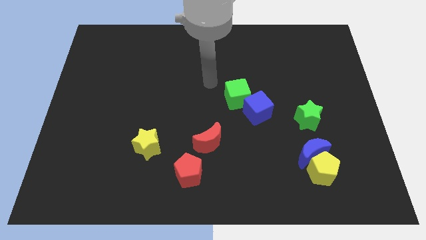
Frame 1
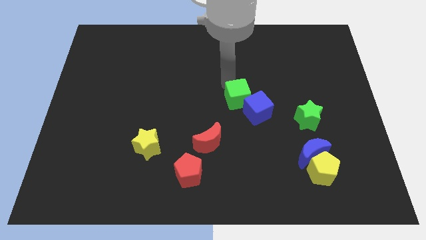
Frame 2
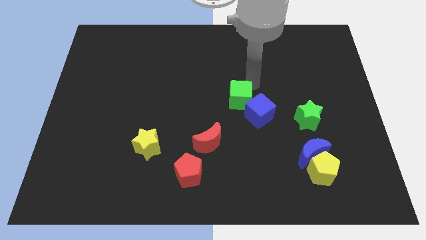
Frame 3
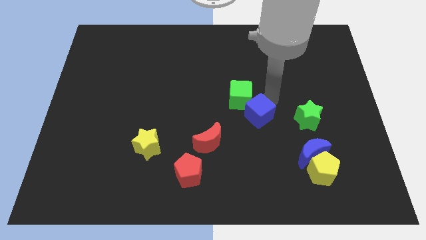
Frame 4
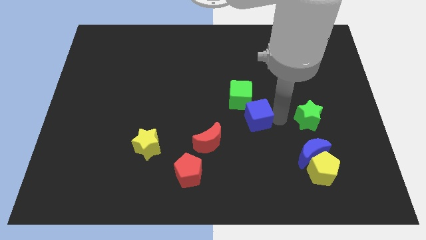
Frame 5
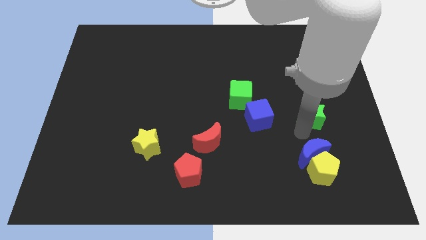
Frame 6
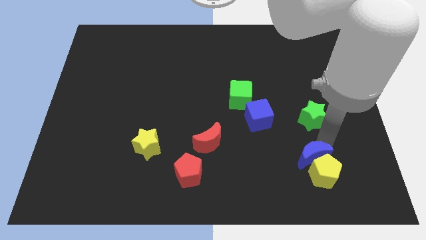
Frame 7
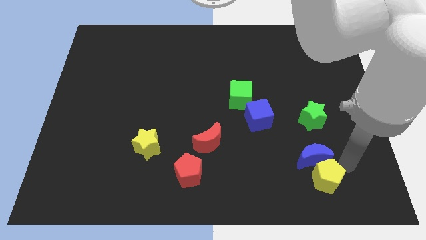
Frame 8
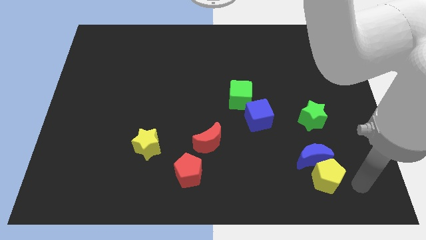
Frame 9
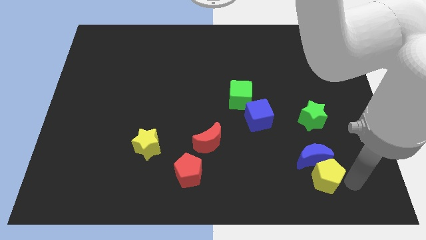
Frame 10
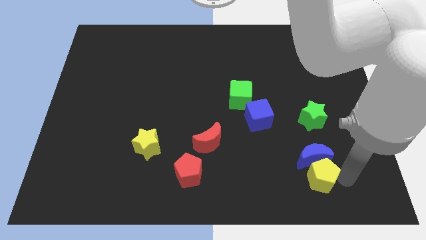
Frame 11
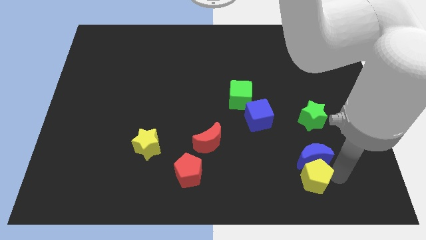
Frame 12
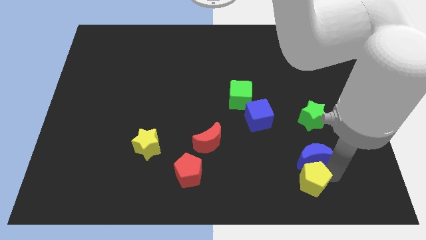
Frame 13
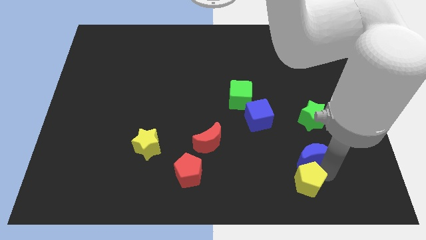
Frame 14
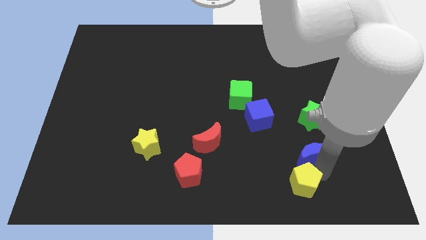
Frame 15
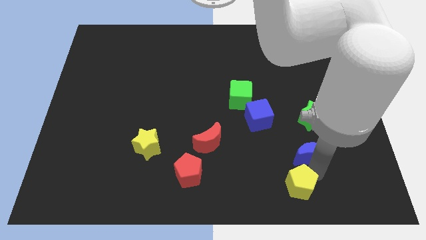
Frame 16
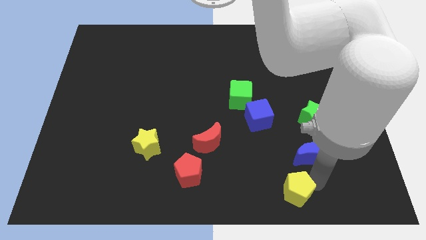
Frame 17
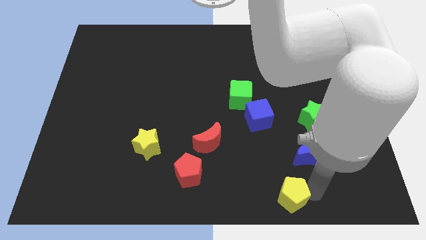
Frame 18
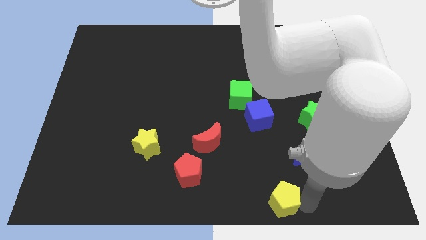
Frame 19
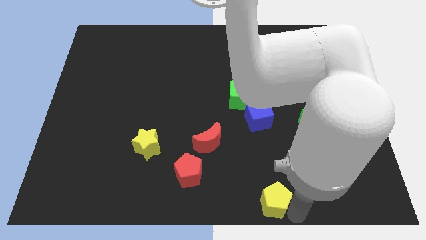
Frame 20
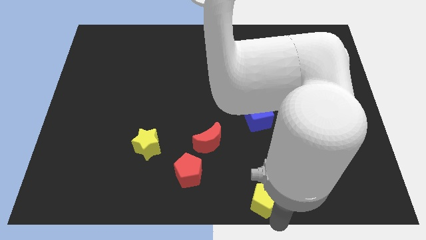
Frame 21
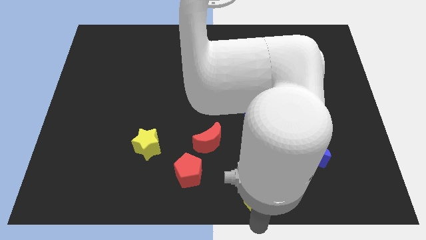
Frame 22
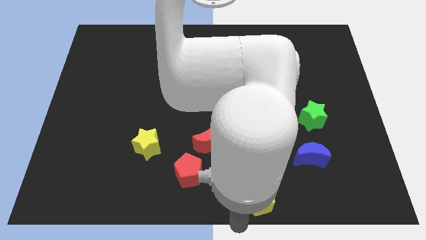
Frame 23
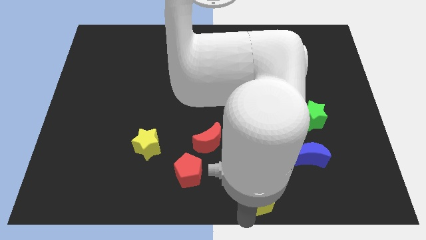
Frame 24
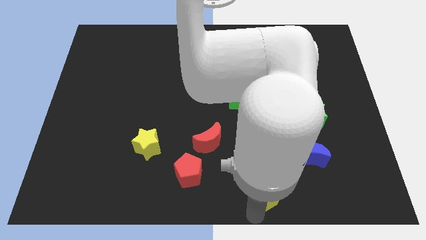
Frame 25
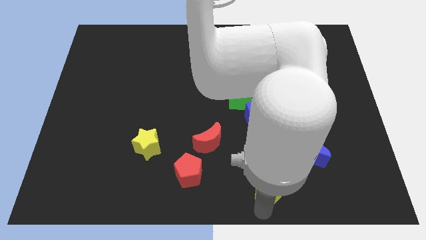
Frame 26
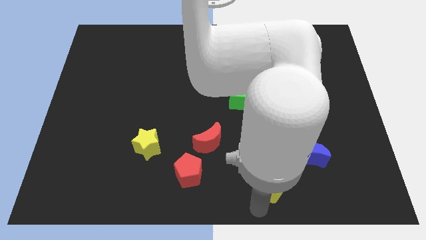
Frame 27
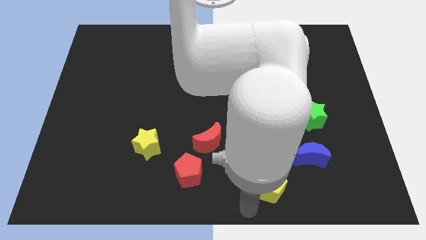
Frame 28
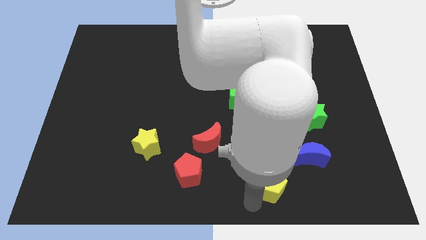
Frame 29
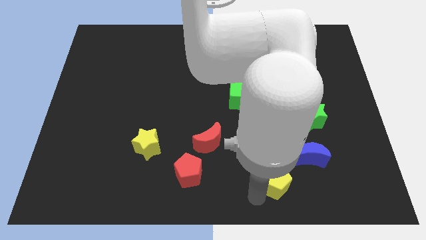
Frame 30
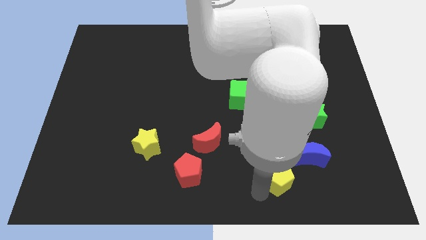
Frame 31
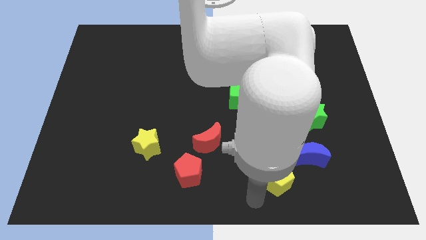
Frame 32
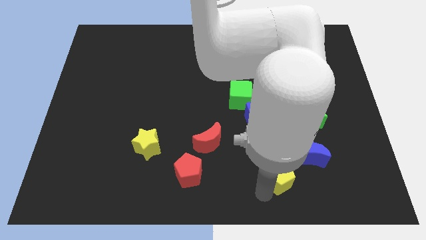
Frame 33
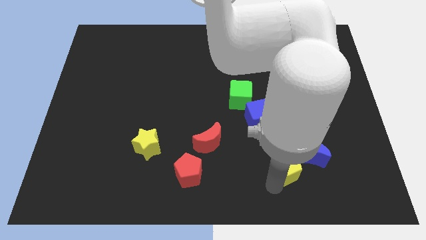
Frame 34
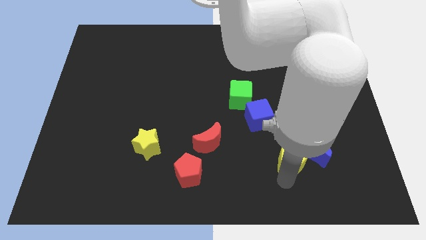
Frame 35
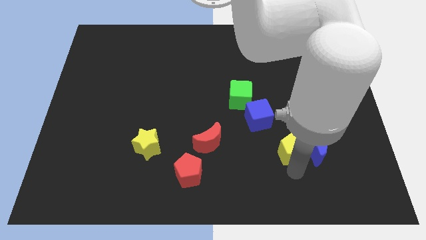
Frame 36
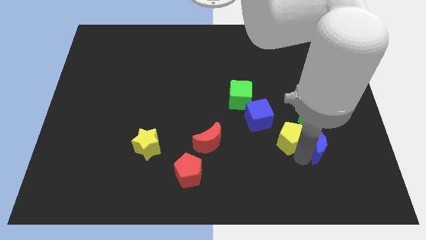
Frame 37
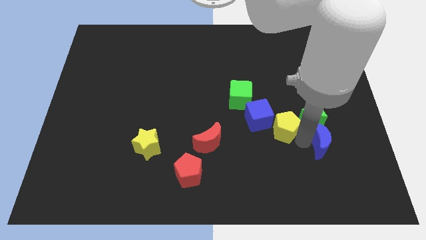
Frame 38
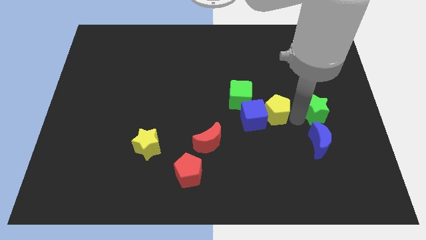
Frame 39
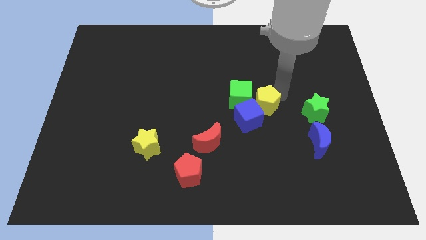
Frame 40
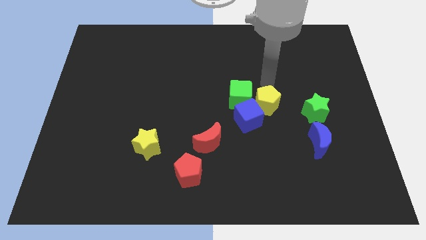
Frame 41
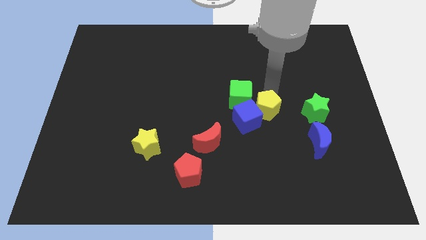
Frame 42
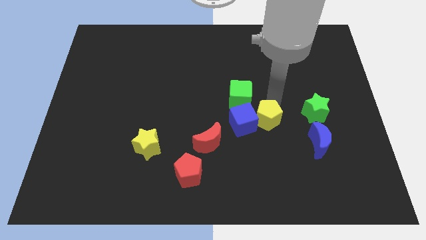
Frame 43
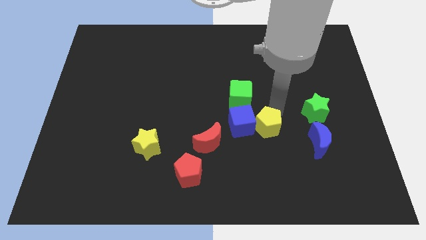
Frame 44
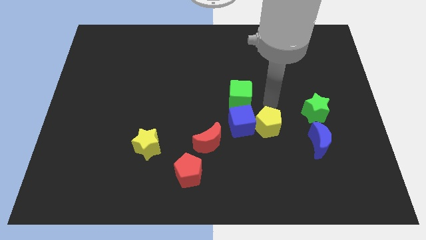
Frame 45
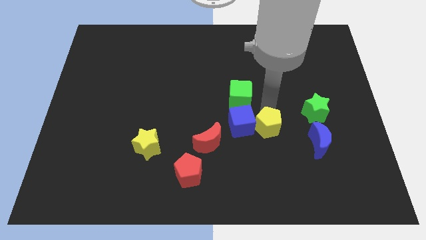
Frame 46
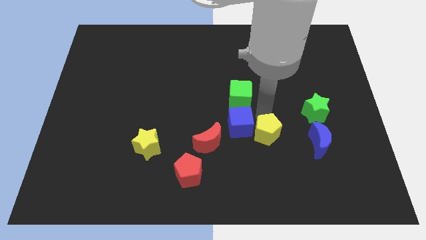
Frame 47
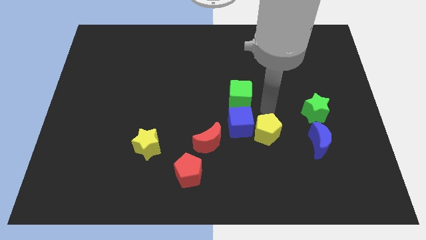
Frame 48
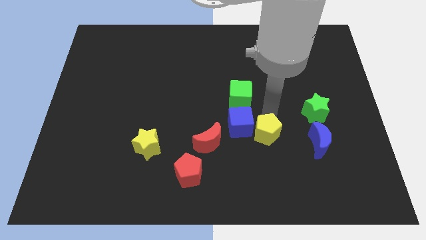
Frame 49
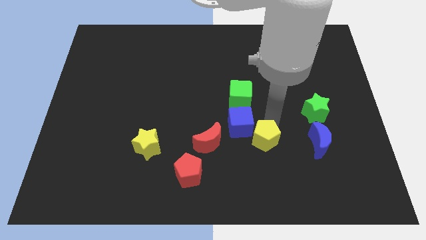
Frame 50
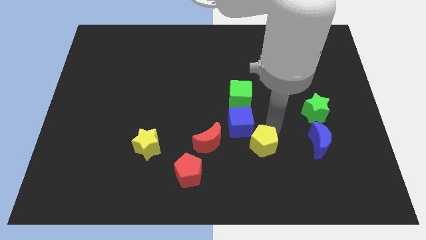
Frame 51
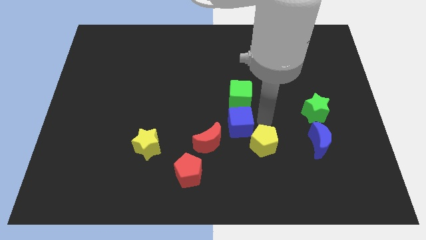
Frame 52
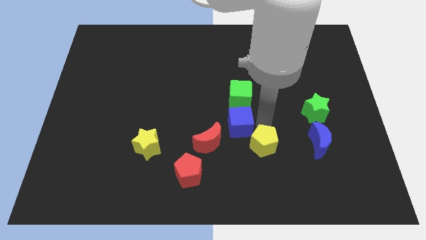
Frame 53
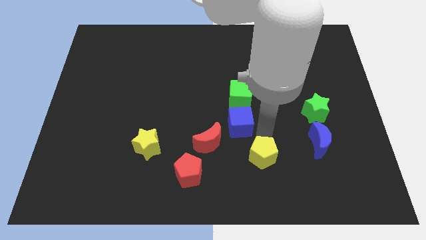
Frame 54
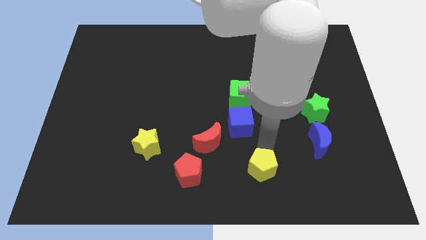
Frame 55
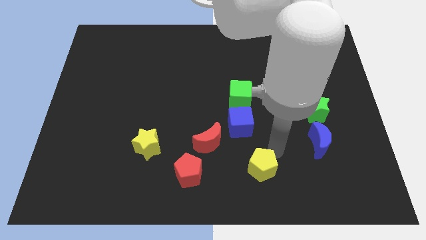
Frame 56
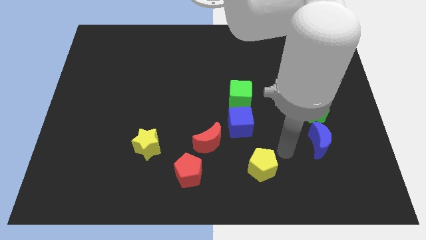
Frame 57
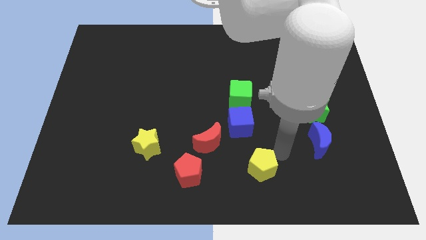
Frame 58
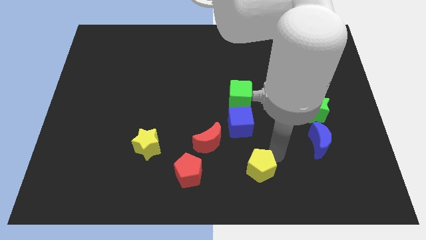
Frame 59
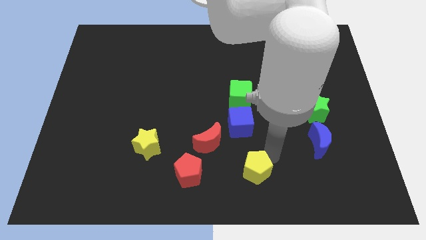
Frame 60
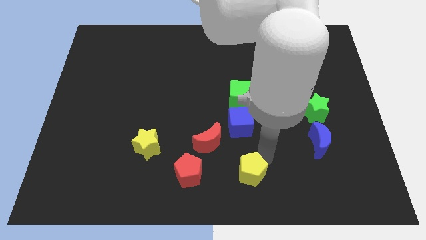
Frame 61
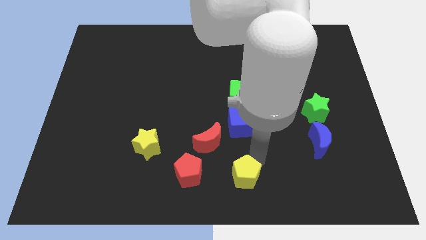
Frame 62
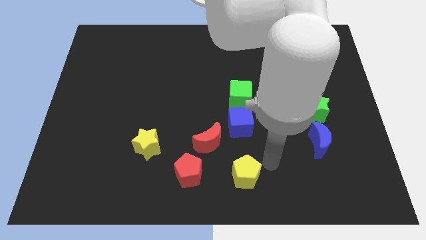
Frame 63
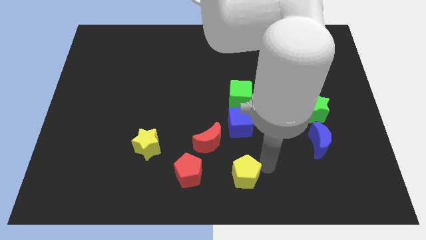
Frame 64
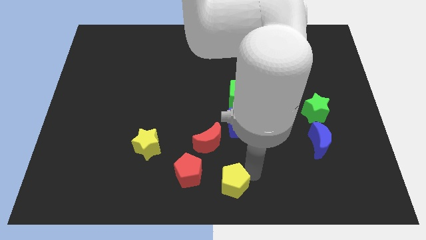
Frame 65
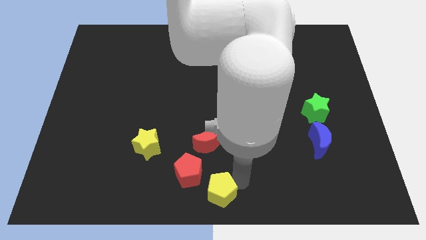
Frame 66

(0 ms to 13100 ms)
push the yellow pentagon to the left

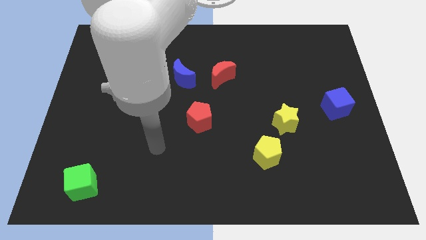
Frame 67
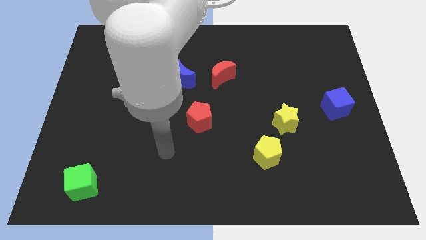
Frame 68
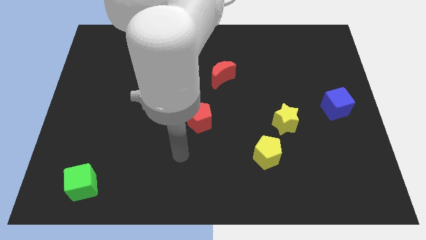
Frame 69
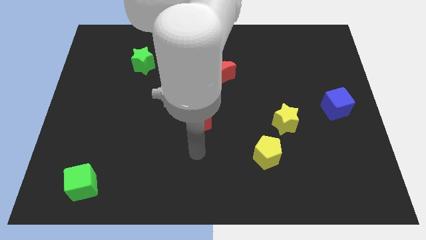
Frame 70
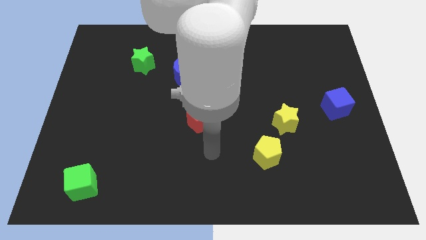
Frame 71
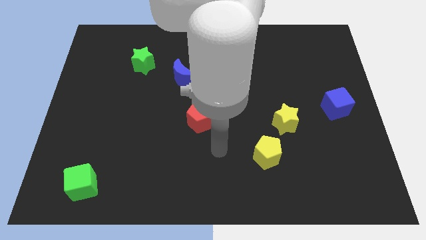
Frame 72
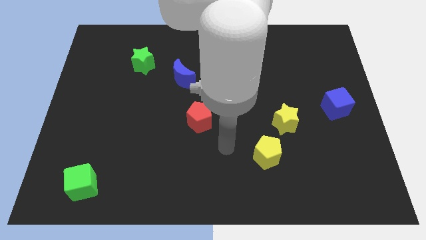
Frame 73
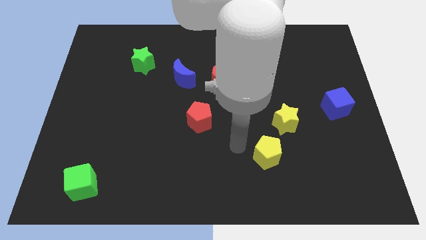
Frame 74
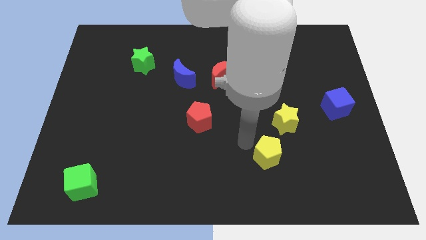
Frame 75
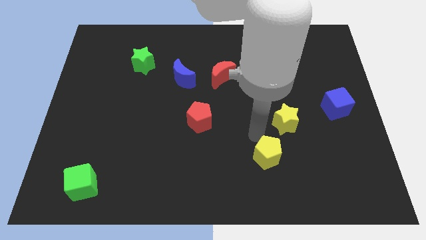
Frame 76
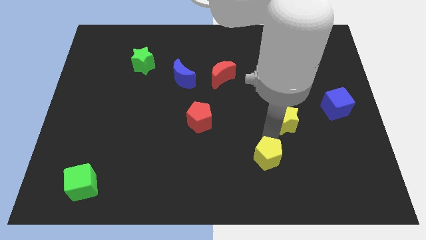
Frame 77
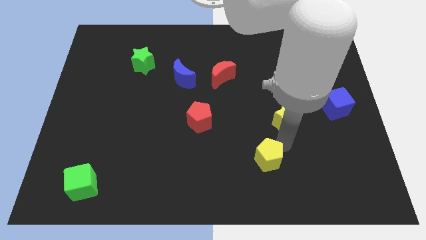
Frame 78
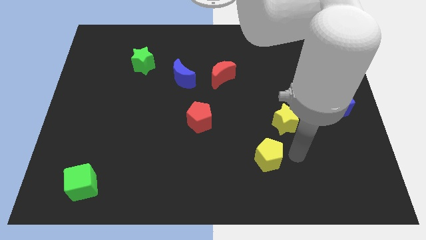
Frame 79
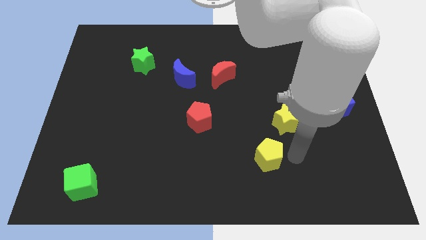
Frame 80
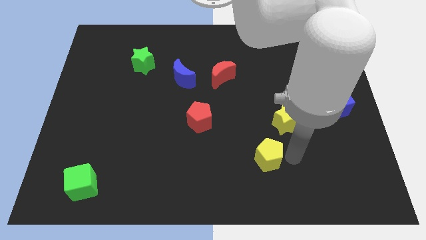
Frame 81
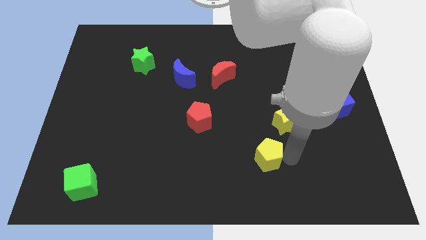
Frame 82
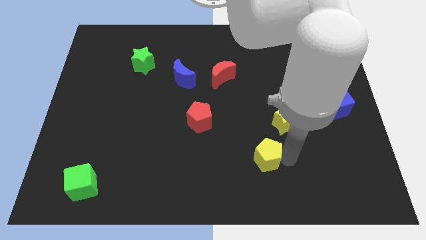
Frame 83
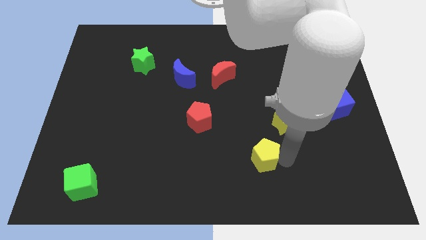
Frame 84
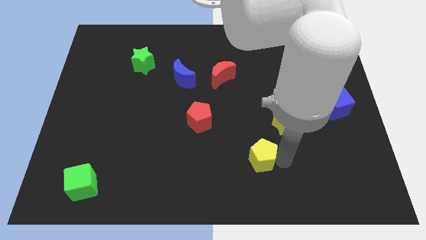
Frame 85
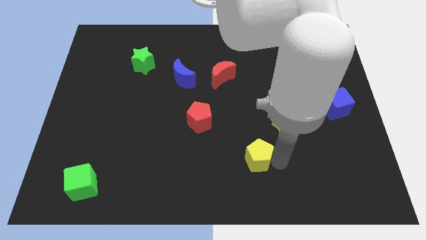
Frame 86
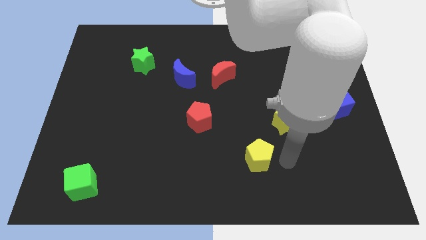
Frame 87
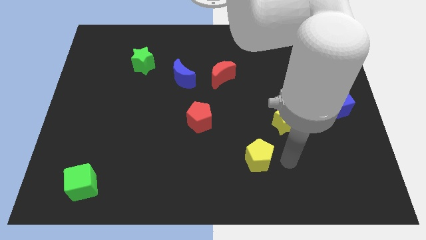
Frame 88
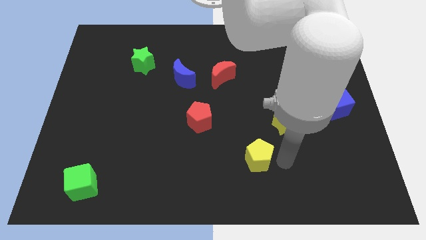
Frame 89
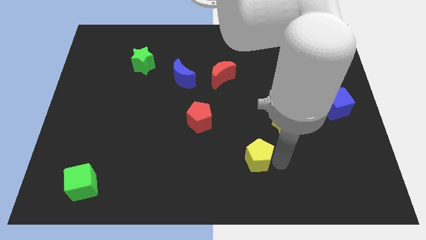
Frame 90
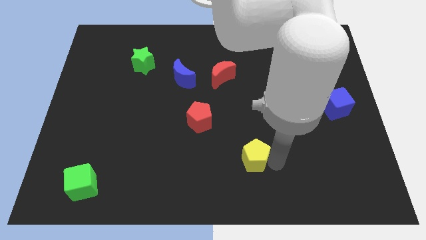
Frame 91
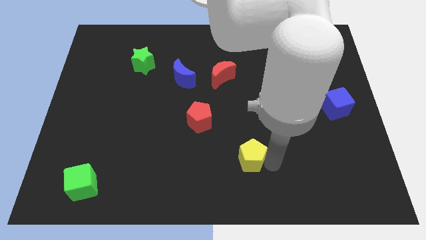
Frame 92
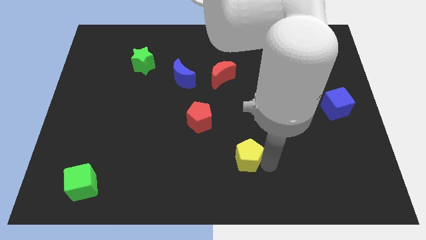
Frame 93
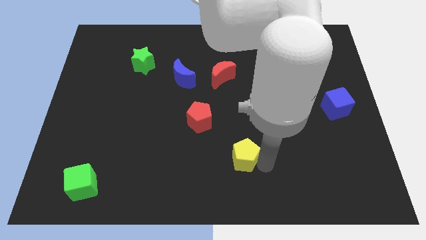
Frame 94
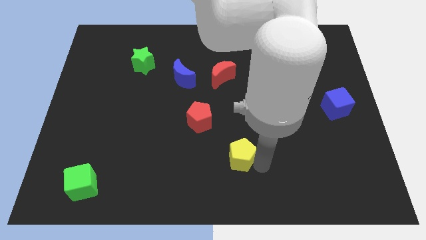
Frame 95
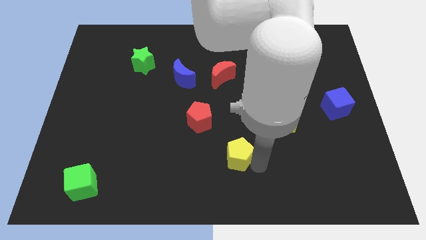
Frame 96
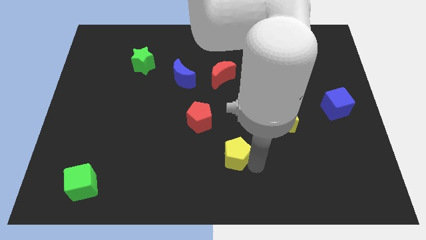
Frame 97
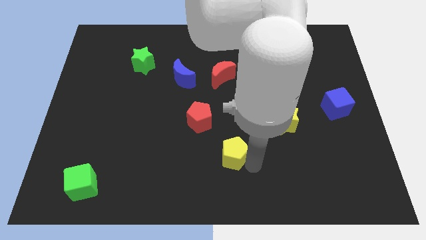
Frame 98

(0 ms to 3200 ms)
push the yellow pentagon slightly left
